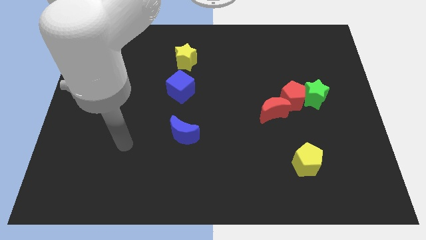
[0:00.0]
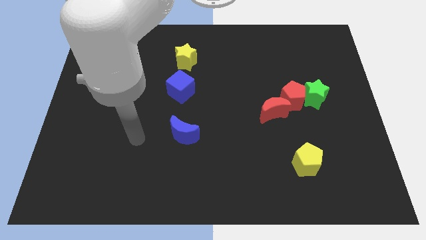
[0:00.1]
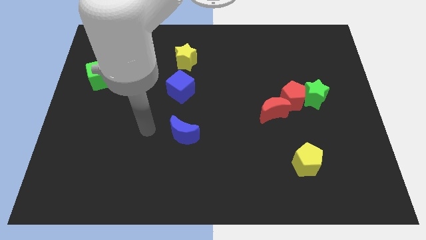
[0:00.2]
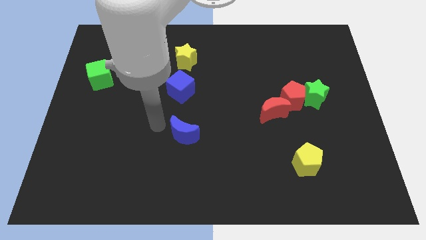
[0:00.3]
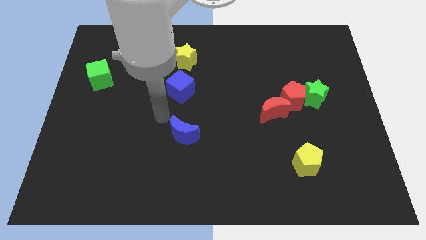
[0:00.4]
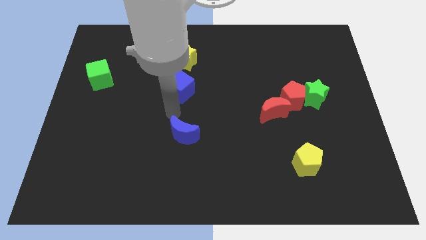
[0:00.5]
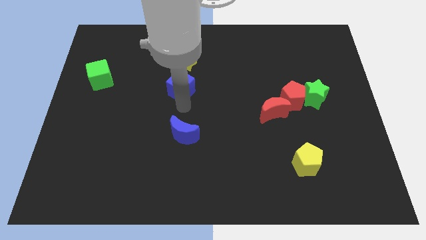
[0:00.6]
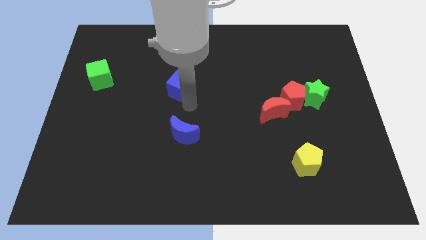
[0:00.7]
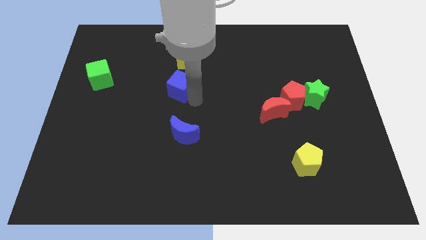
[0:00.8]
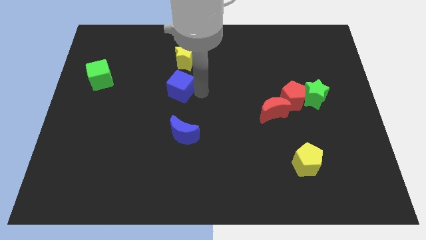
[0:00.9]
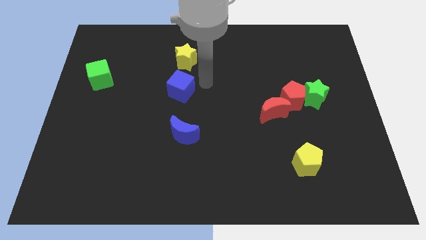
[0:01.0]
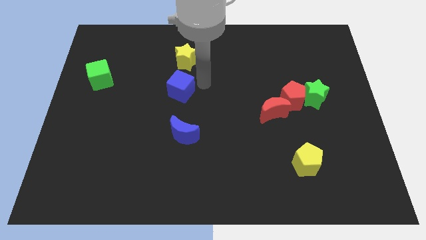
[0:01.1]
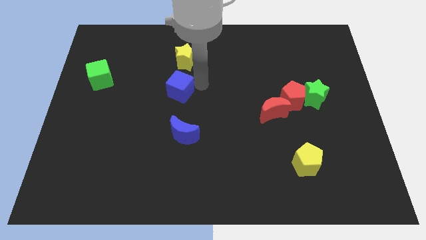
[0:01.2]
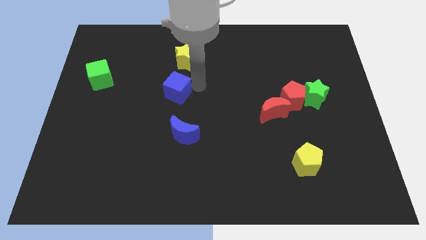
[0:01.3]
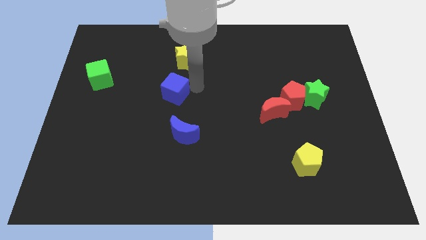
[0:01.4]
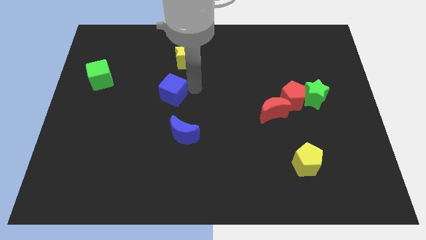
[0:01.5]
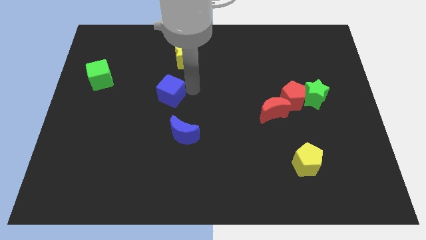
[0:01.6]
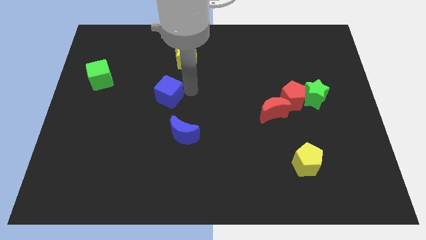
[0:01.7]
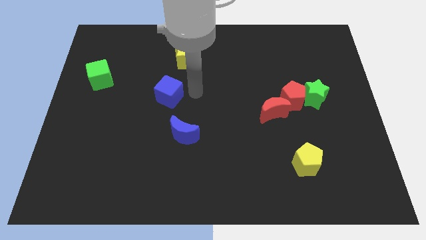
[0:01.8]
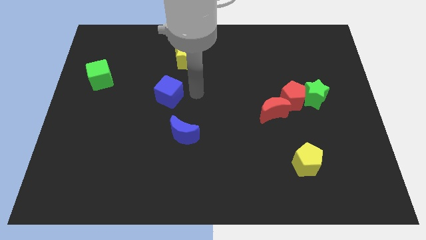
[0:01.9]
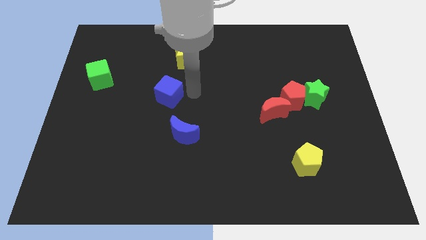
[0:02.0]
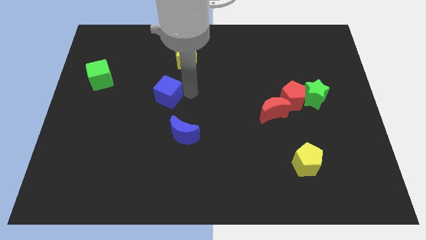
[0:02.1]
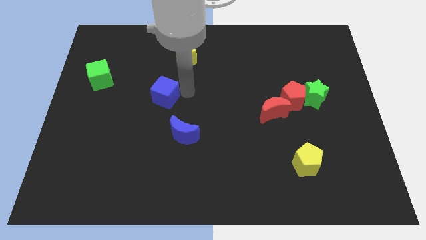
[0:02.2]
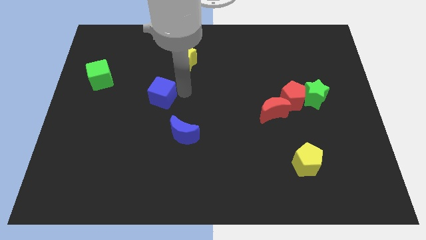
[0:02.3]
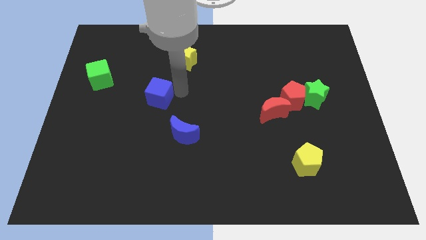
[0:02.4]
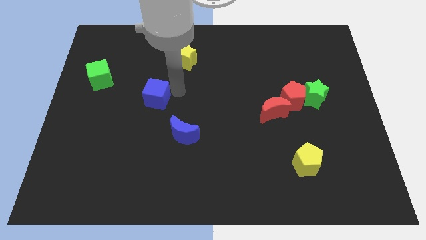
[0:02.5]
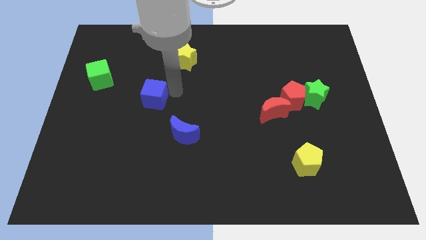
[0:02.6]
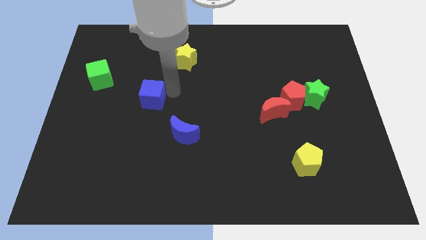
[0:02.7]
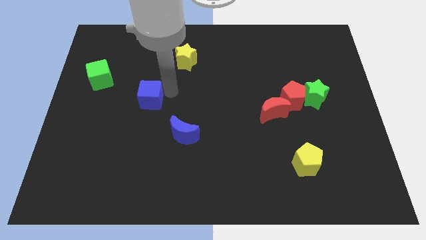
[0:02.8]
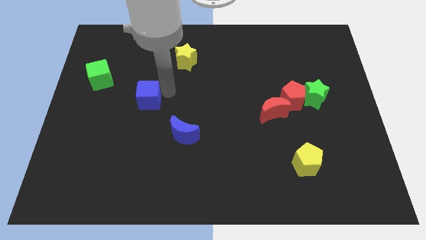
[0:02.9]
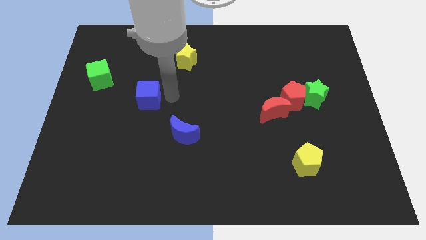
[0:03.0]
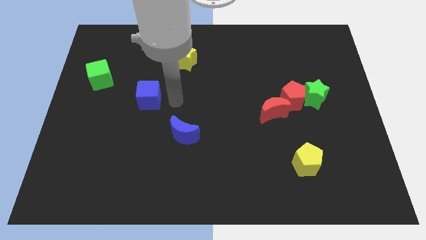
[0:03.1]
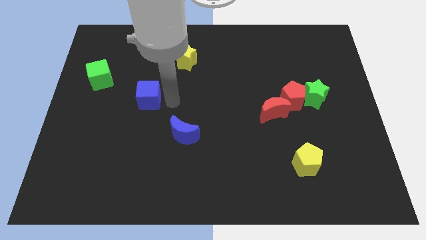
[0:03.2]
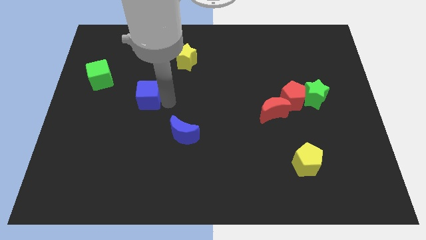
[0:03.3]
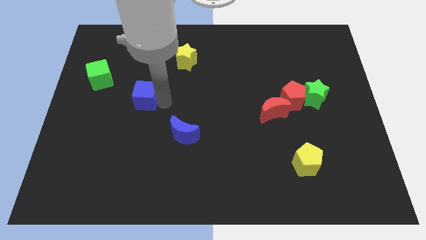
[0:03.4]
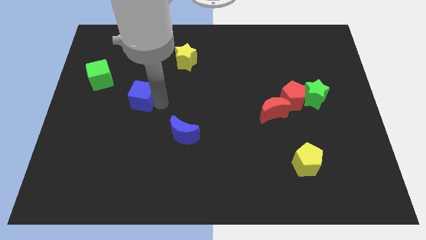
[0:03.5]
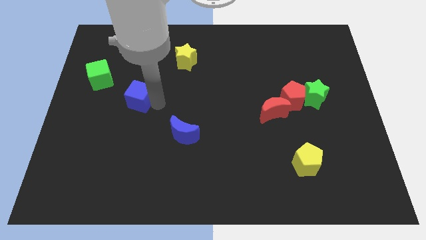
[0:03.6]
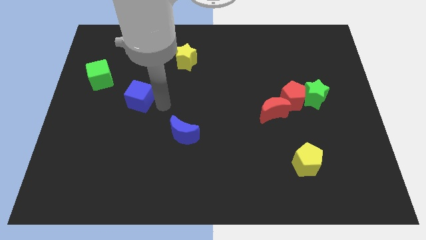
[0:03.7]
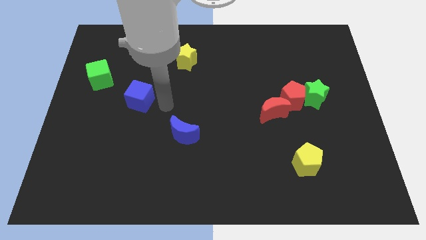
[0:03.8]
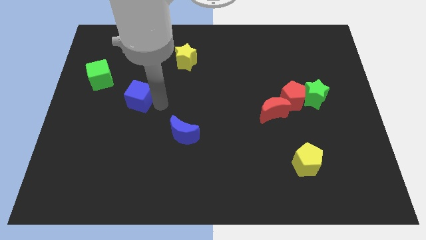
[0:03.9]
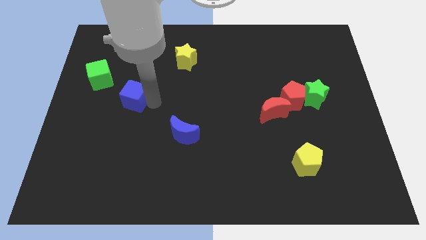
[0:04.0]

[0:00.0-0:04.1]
move the blue cube to the bottom right side of the green cube

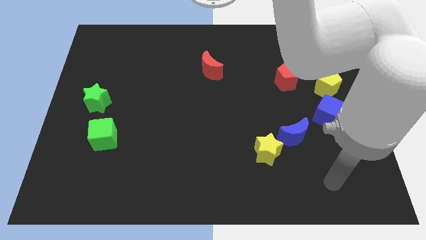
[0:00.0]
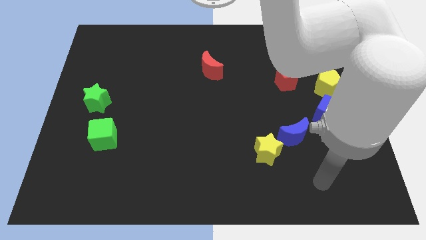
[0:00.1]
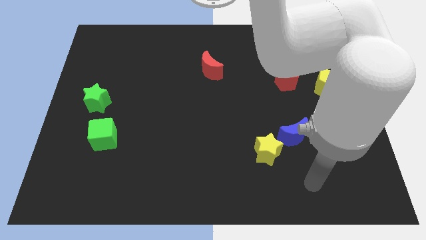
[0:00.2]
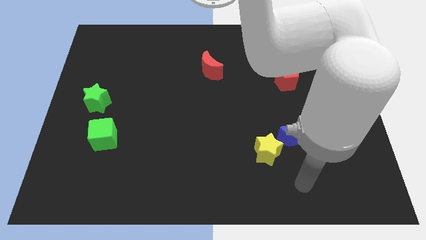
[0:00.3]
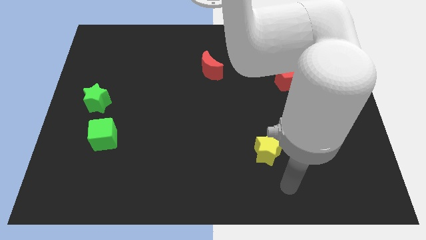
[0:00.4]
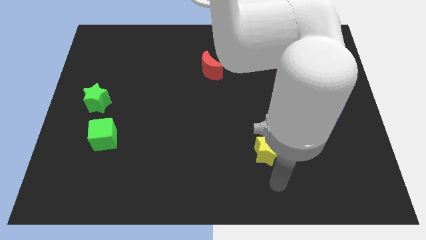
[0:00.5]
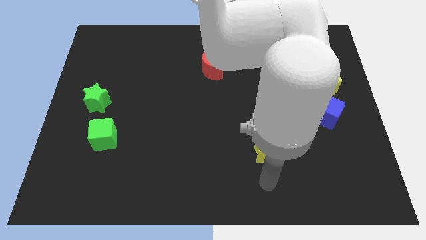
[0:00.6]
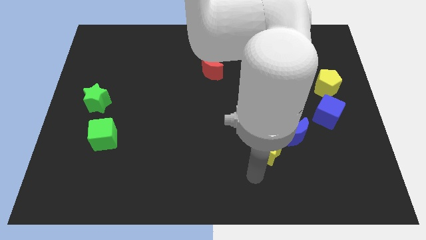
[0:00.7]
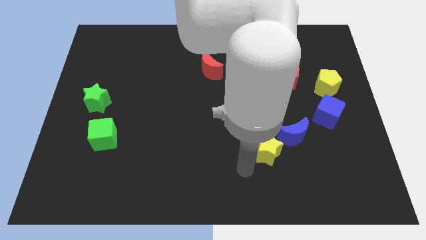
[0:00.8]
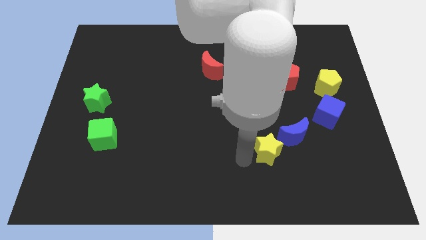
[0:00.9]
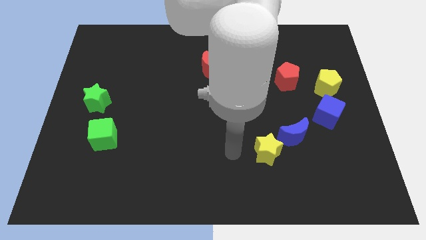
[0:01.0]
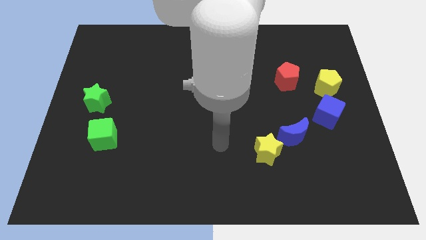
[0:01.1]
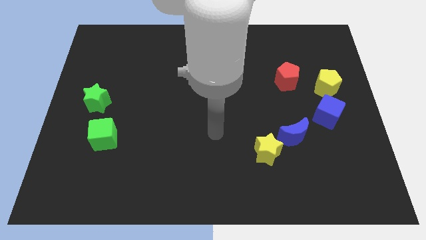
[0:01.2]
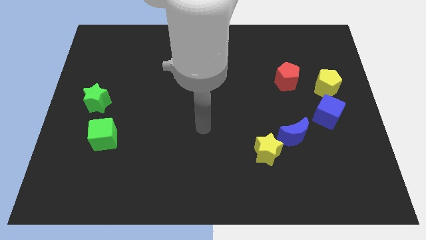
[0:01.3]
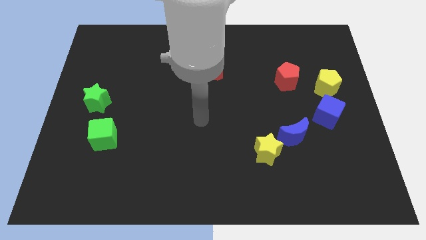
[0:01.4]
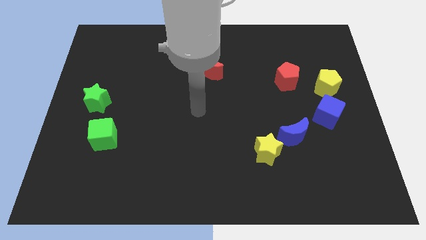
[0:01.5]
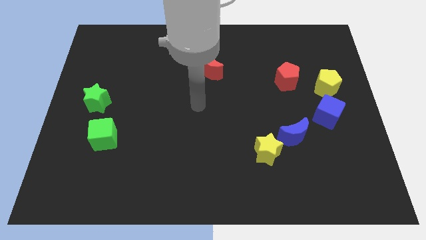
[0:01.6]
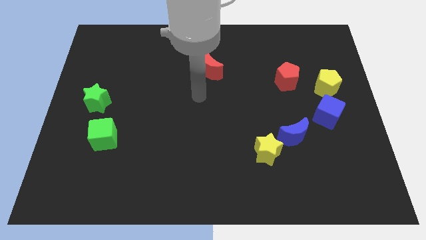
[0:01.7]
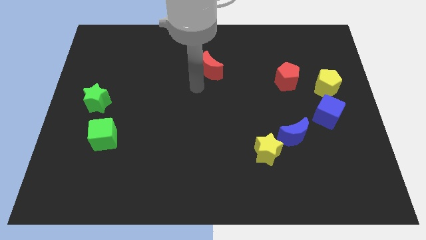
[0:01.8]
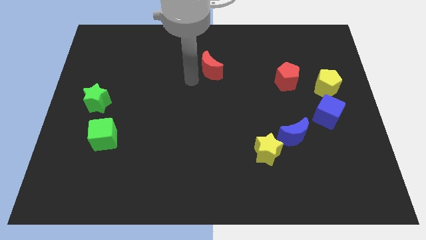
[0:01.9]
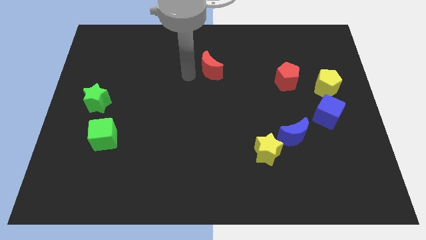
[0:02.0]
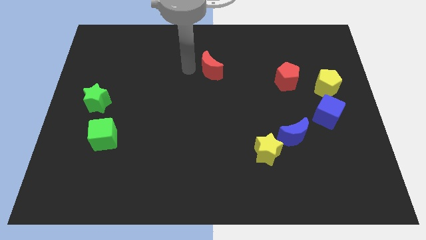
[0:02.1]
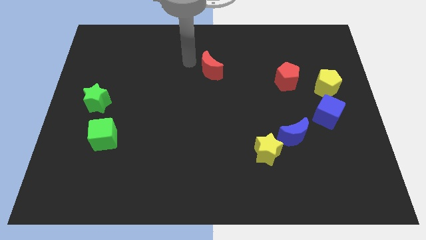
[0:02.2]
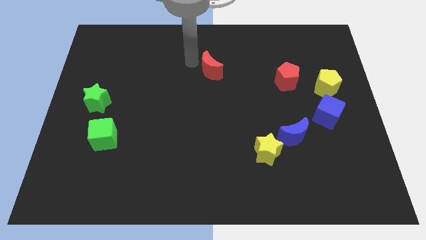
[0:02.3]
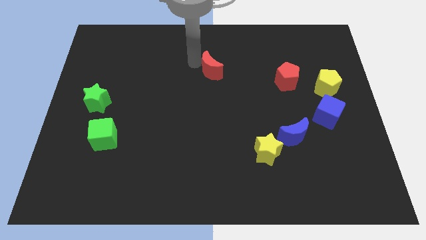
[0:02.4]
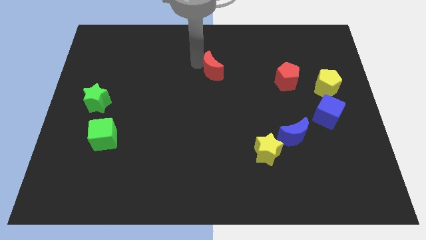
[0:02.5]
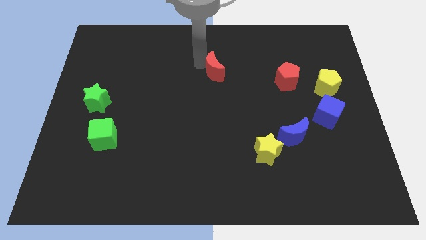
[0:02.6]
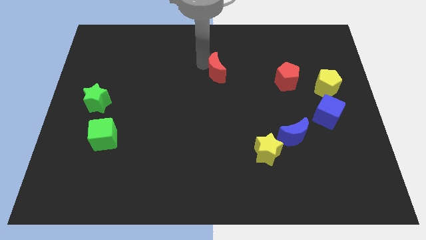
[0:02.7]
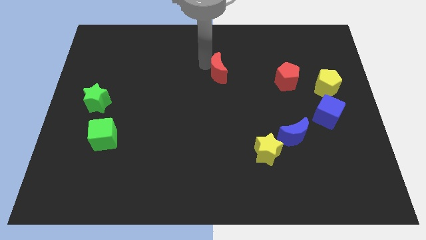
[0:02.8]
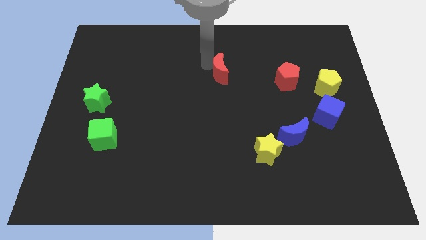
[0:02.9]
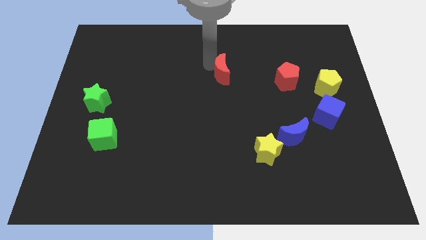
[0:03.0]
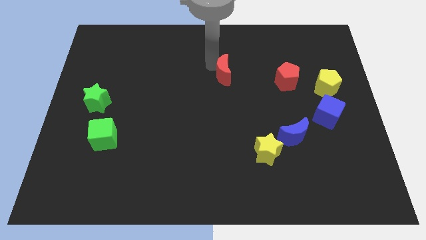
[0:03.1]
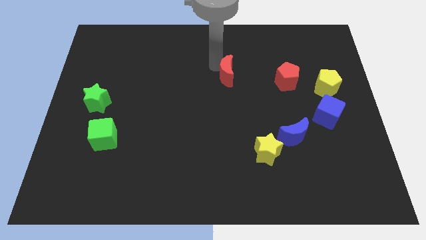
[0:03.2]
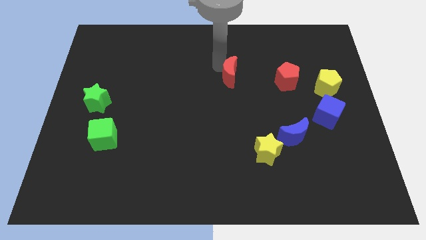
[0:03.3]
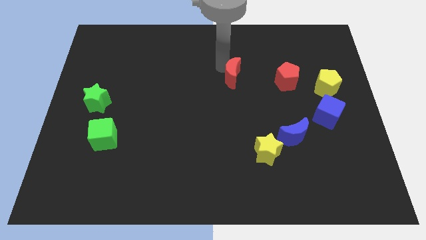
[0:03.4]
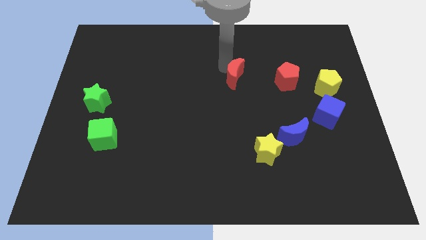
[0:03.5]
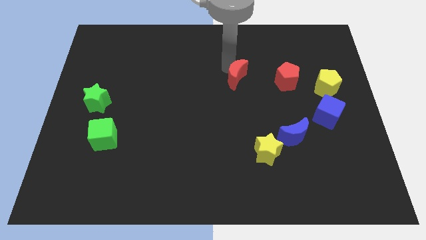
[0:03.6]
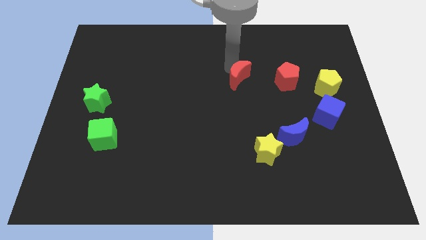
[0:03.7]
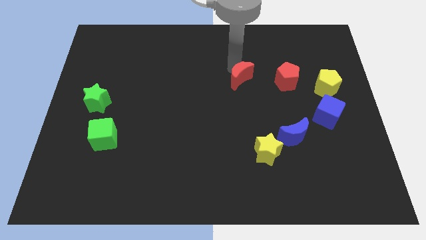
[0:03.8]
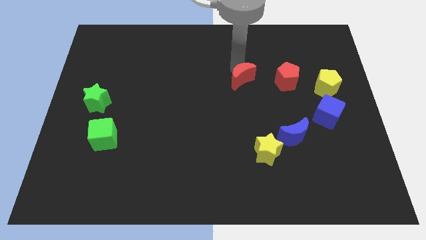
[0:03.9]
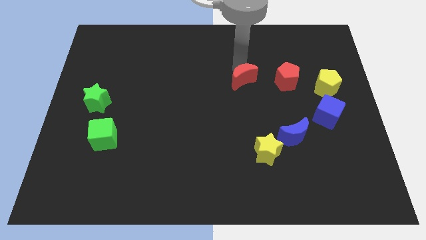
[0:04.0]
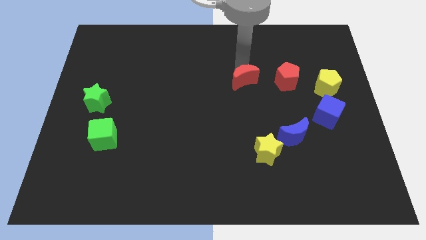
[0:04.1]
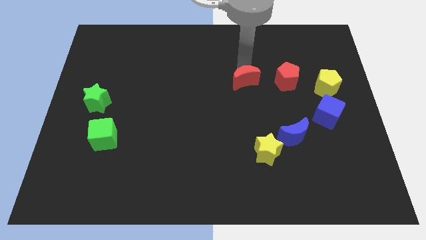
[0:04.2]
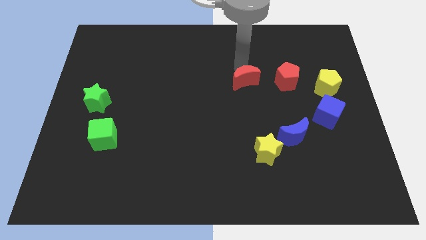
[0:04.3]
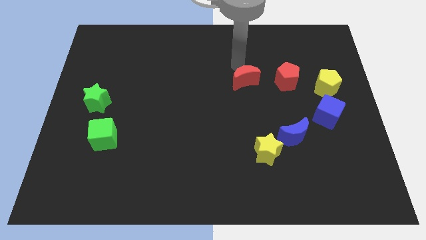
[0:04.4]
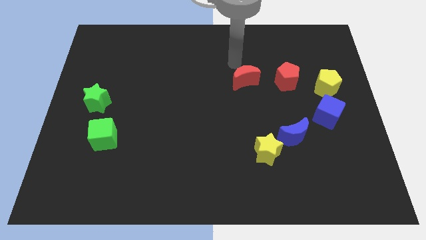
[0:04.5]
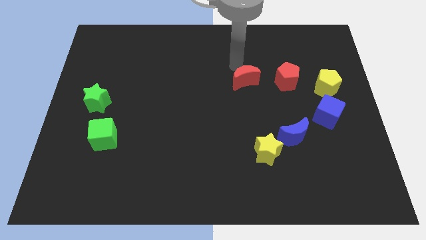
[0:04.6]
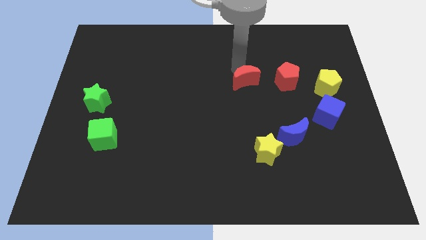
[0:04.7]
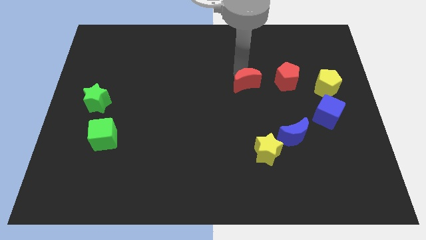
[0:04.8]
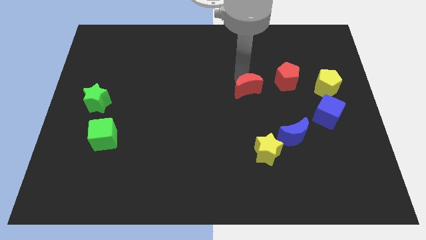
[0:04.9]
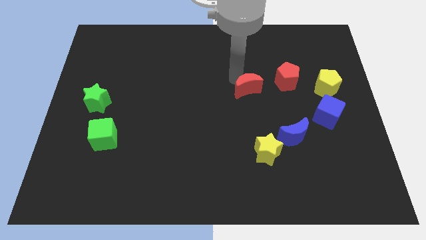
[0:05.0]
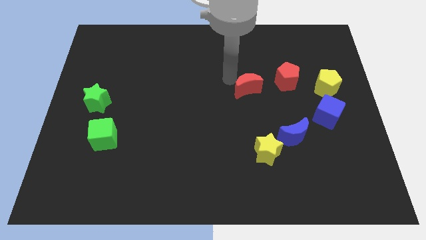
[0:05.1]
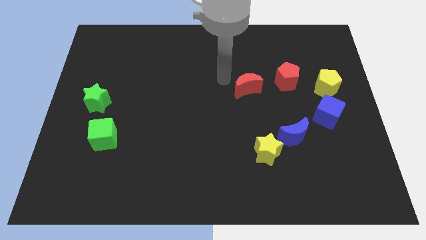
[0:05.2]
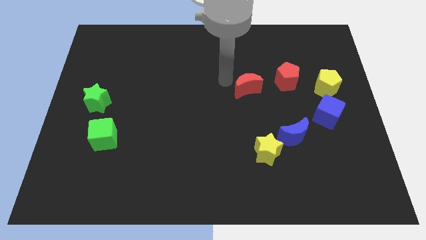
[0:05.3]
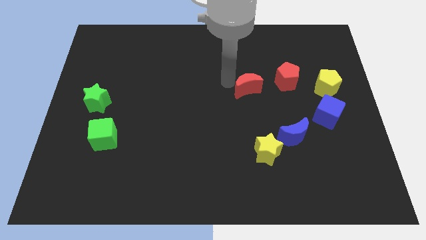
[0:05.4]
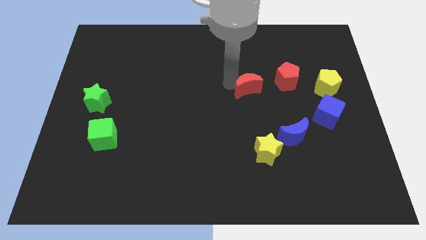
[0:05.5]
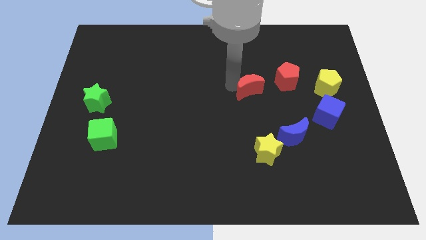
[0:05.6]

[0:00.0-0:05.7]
move the red moon to the bottom left of the red pentagon
